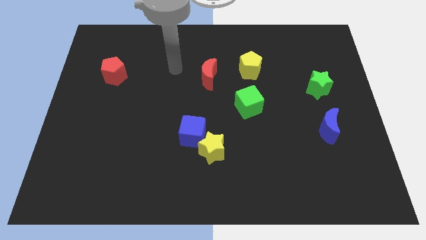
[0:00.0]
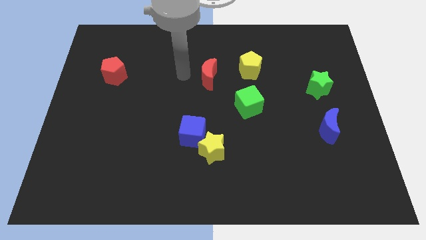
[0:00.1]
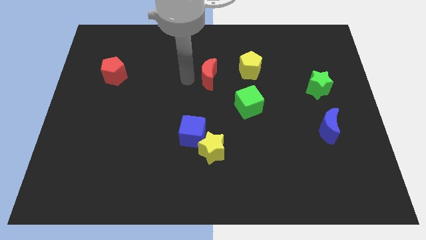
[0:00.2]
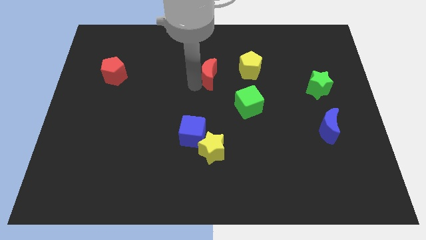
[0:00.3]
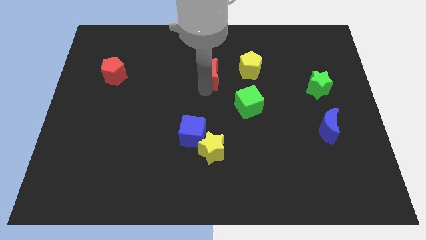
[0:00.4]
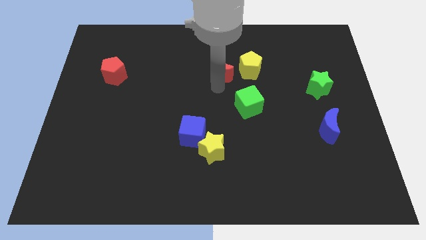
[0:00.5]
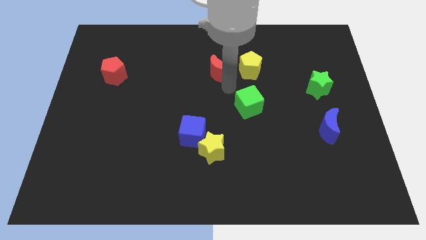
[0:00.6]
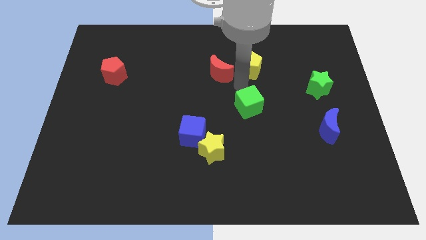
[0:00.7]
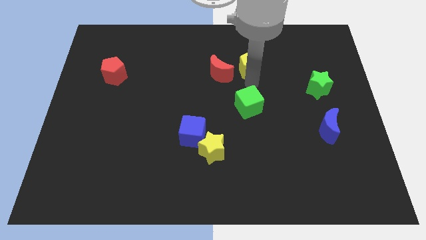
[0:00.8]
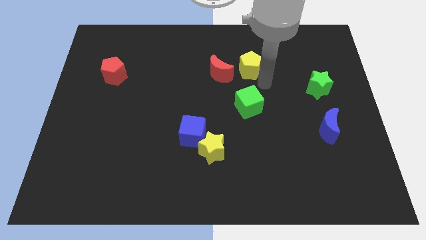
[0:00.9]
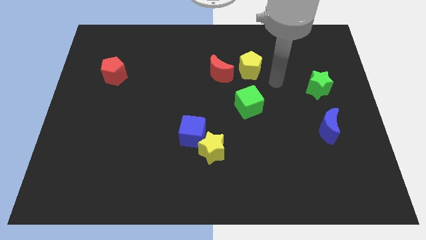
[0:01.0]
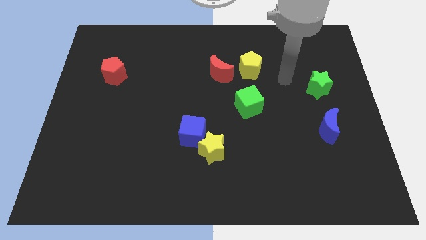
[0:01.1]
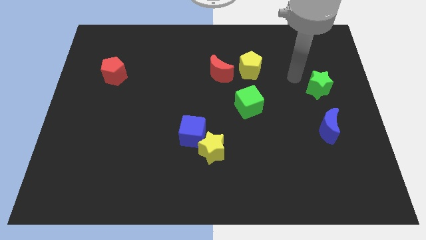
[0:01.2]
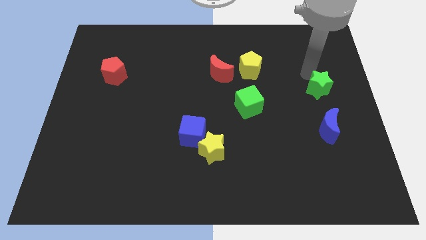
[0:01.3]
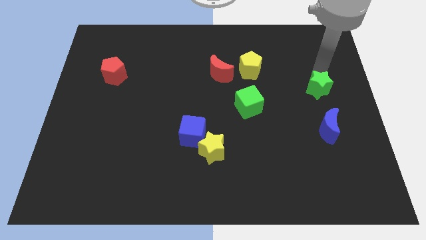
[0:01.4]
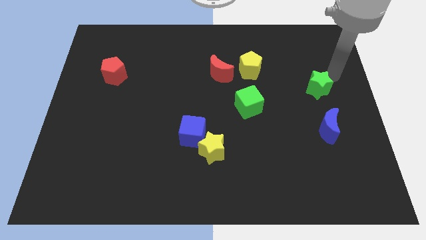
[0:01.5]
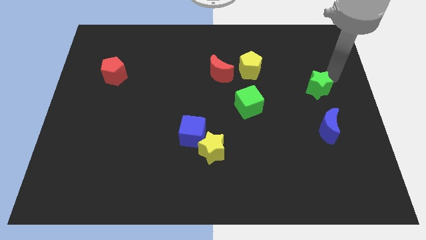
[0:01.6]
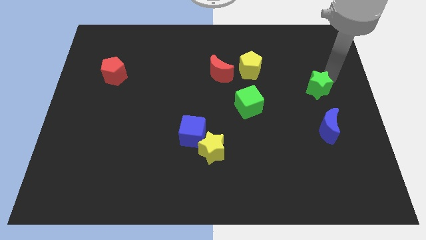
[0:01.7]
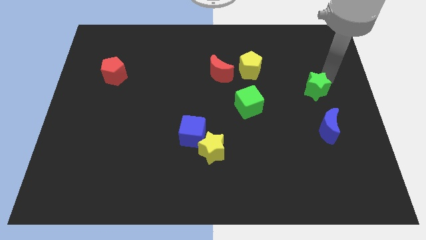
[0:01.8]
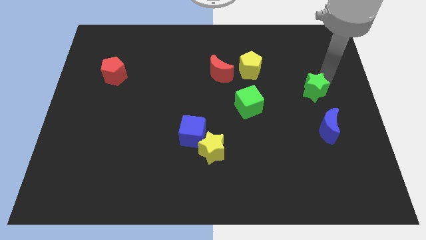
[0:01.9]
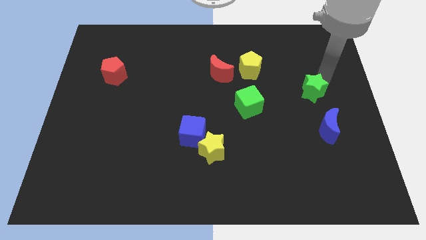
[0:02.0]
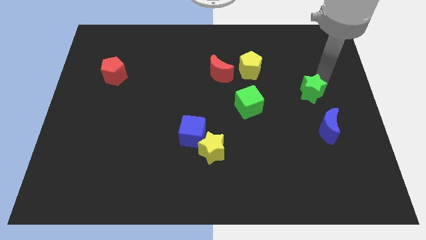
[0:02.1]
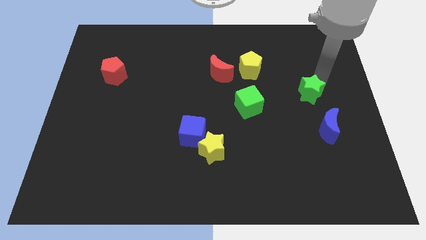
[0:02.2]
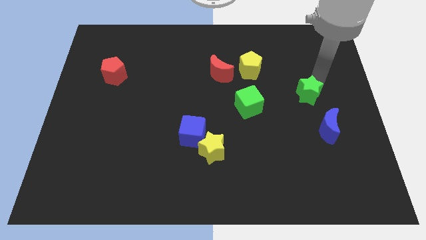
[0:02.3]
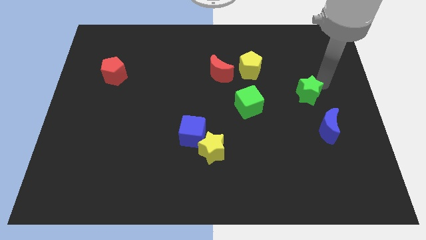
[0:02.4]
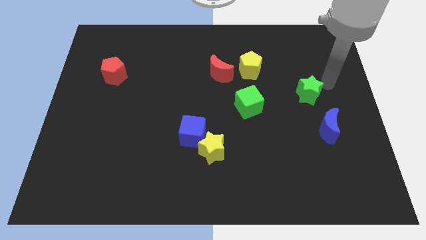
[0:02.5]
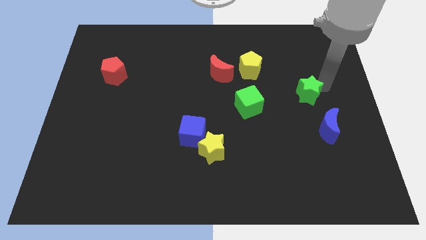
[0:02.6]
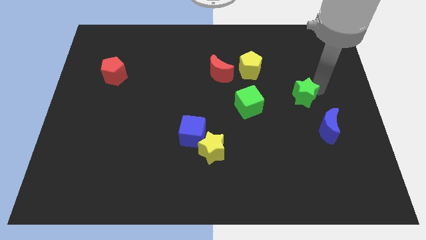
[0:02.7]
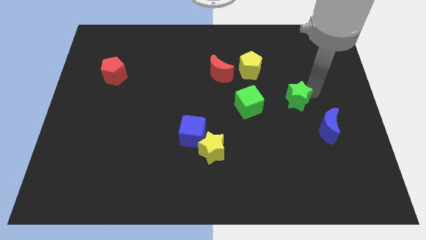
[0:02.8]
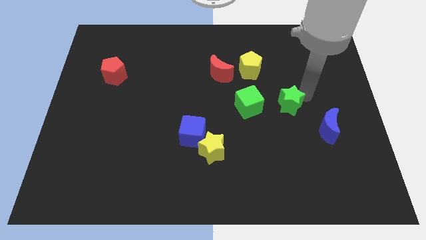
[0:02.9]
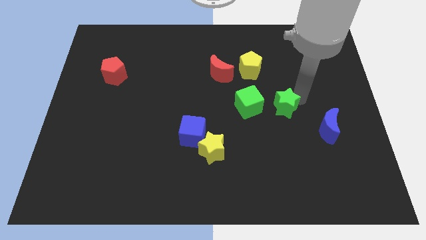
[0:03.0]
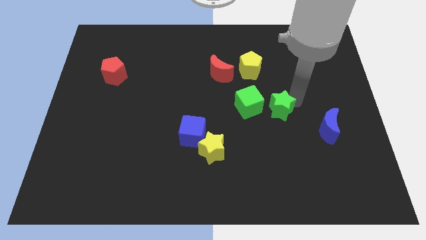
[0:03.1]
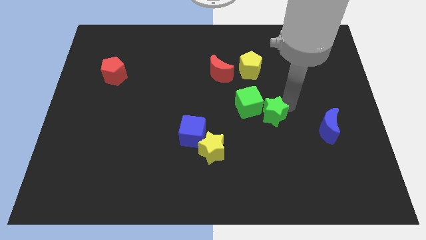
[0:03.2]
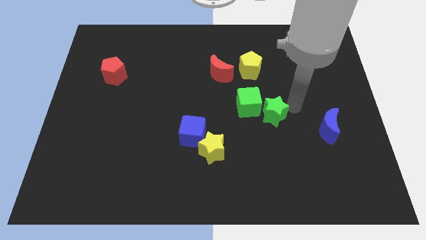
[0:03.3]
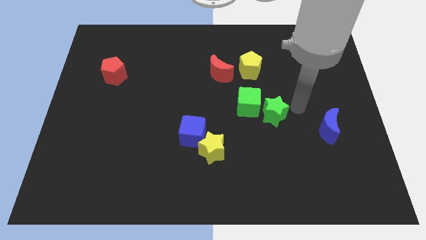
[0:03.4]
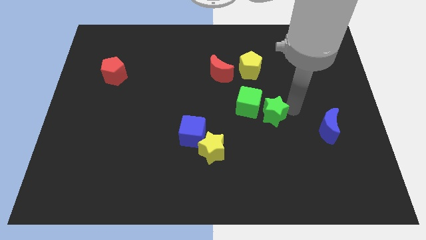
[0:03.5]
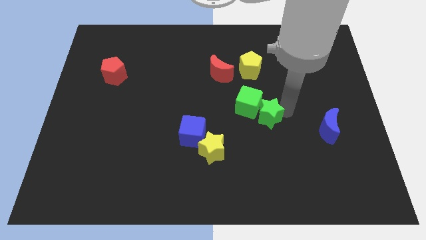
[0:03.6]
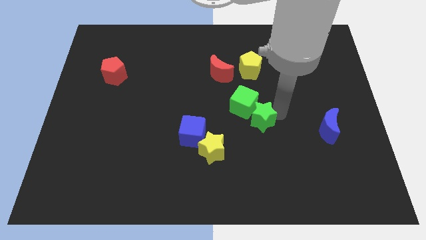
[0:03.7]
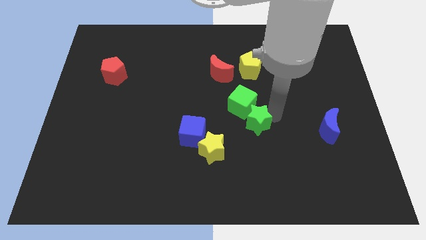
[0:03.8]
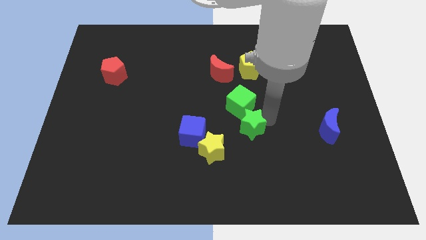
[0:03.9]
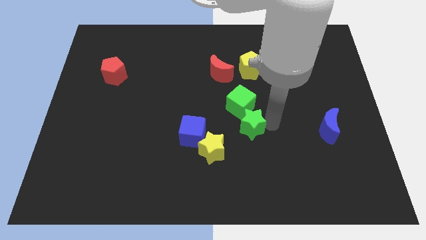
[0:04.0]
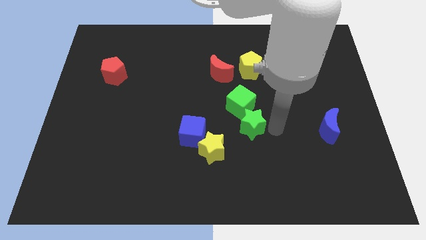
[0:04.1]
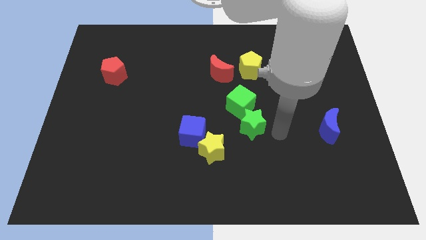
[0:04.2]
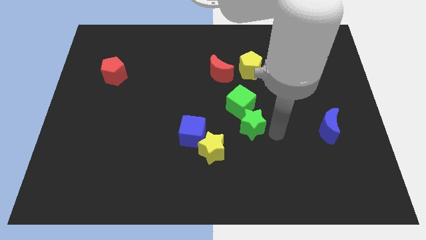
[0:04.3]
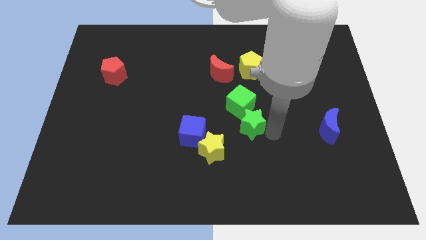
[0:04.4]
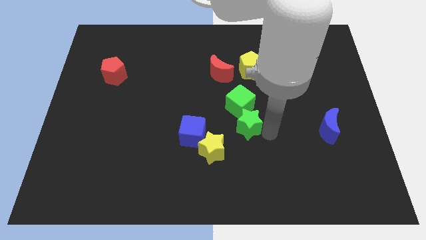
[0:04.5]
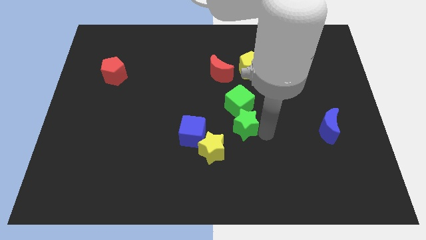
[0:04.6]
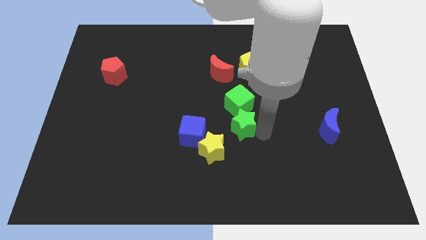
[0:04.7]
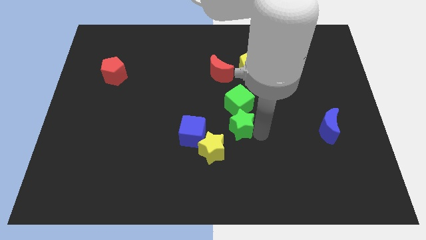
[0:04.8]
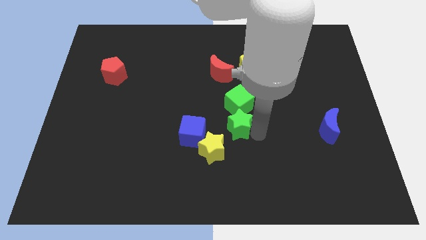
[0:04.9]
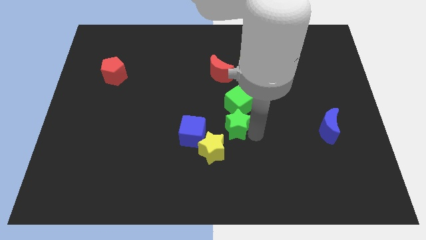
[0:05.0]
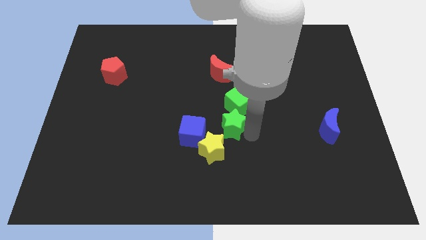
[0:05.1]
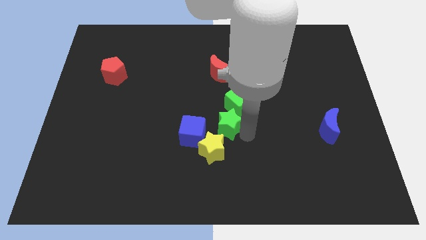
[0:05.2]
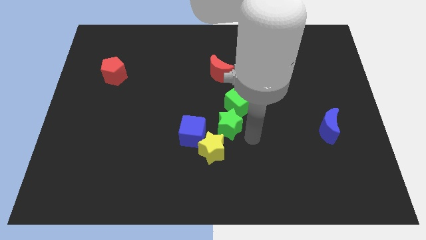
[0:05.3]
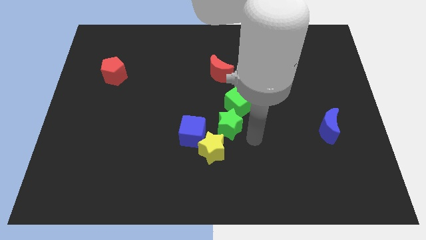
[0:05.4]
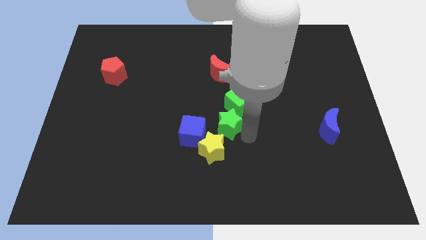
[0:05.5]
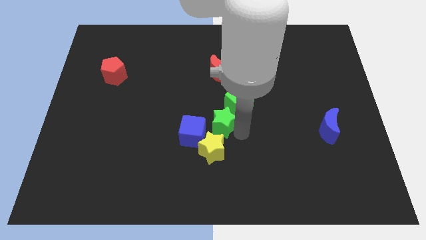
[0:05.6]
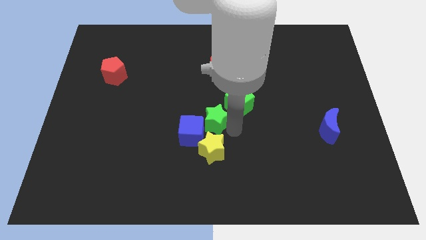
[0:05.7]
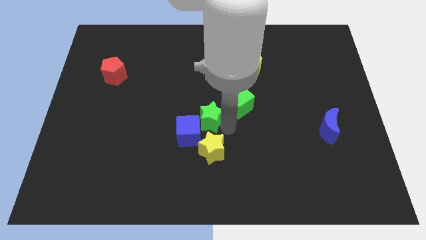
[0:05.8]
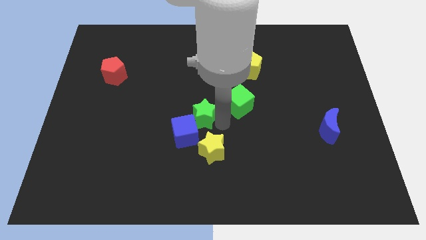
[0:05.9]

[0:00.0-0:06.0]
push the green star to the top left side of the yellow star

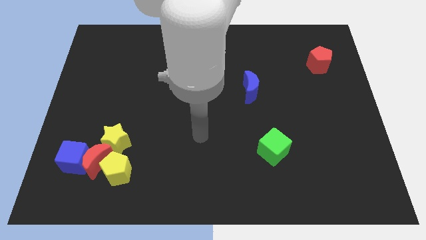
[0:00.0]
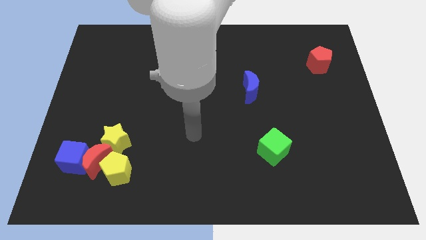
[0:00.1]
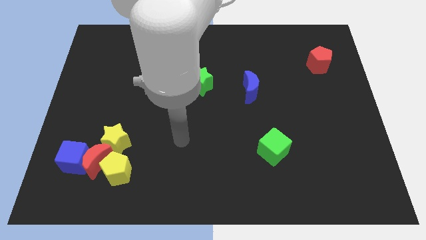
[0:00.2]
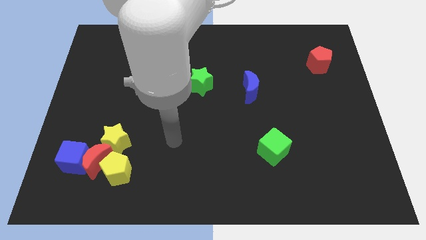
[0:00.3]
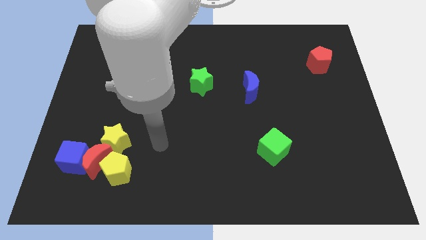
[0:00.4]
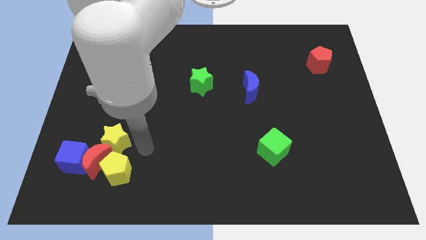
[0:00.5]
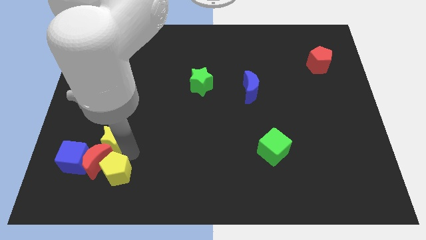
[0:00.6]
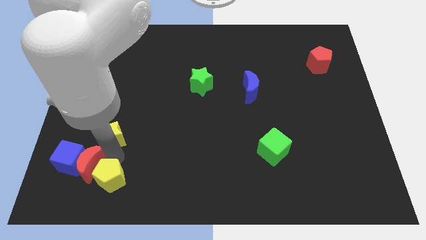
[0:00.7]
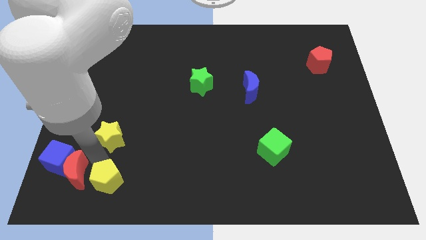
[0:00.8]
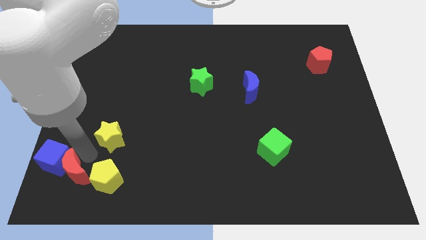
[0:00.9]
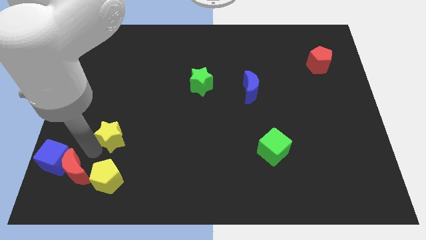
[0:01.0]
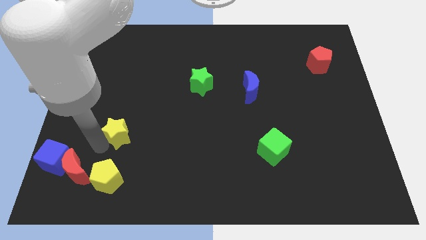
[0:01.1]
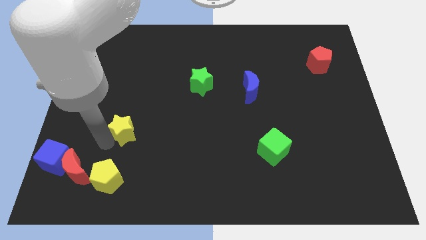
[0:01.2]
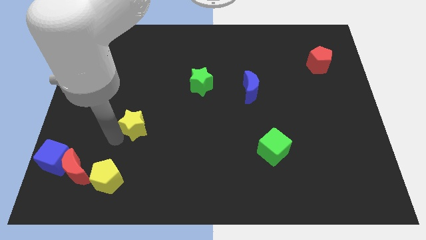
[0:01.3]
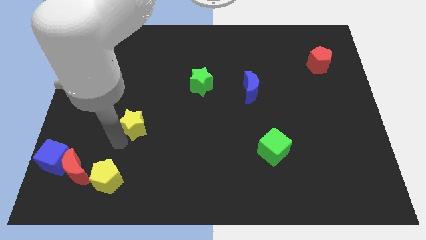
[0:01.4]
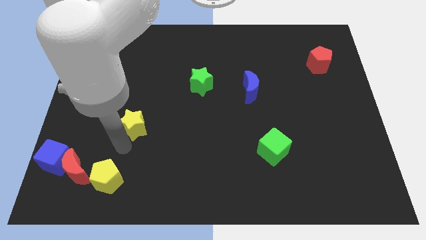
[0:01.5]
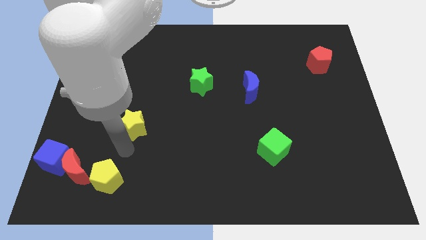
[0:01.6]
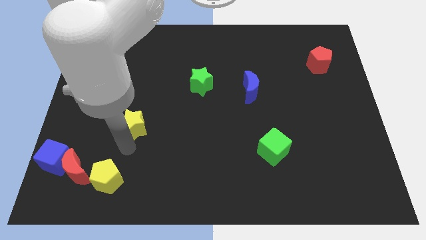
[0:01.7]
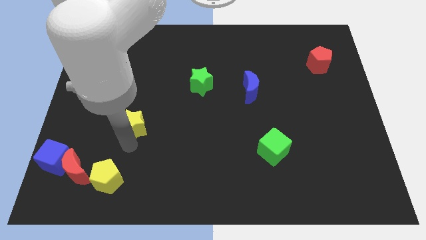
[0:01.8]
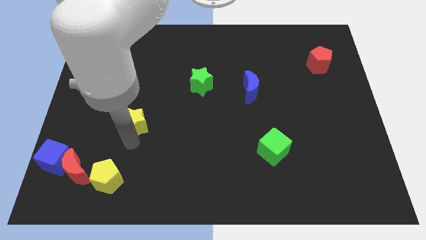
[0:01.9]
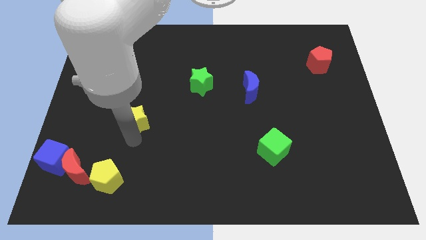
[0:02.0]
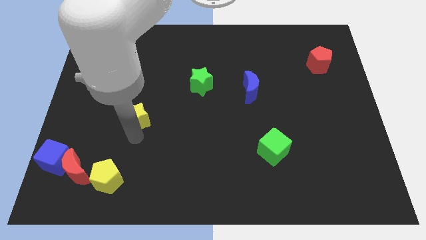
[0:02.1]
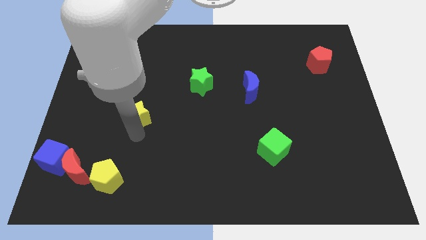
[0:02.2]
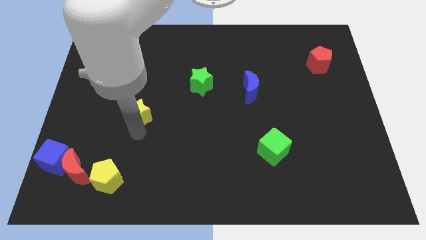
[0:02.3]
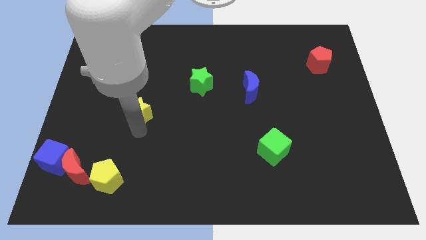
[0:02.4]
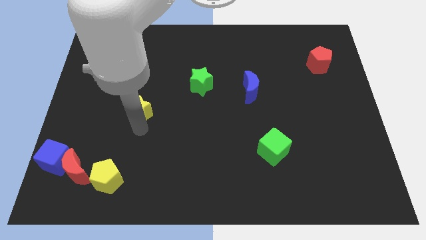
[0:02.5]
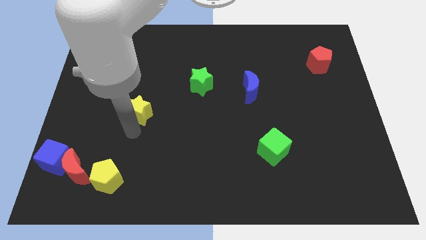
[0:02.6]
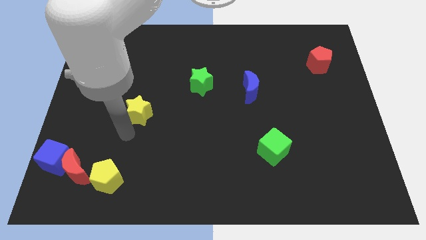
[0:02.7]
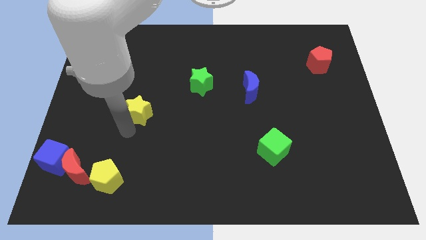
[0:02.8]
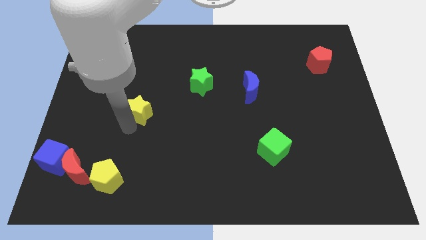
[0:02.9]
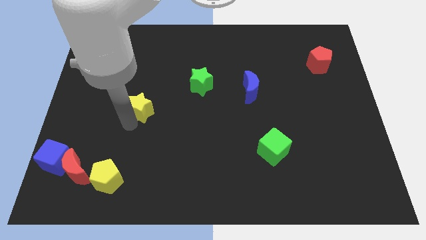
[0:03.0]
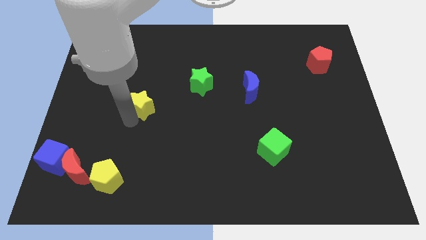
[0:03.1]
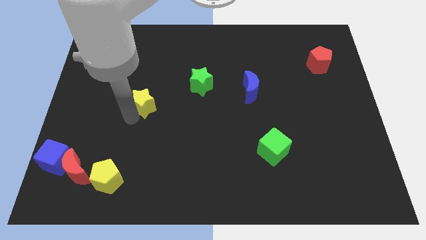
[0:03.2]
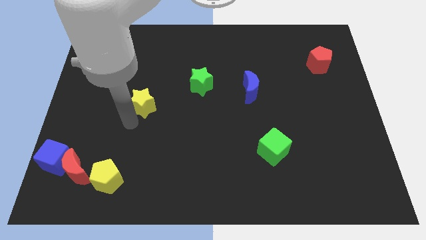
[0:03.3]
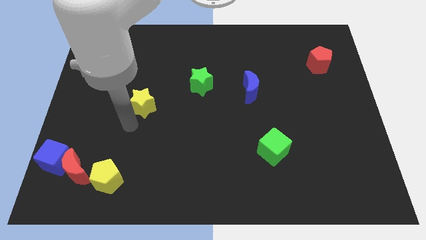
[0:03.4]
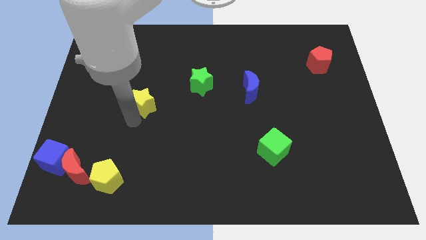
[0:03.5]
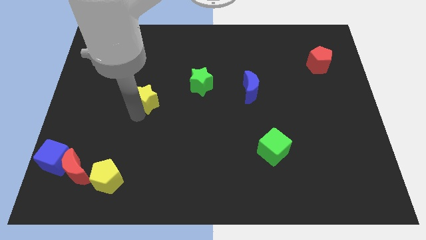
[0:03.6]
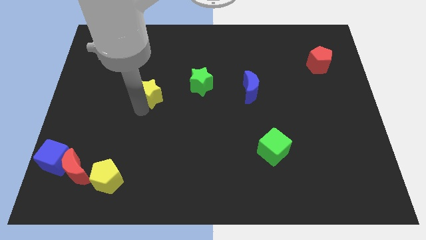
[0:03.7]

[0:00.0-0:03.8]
put the yellow star left of the green star
